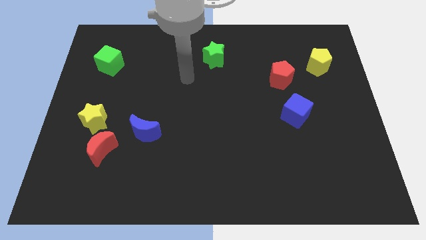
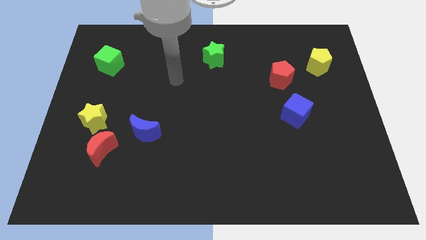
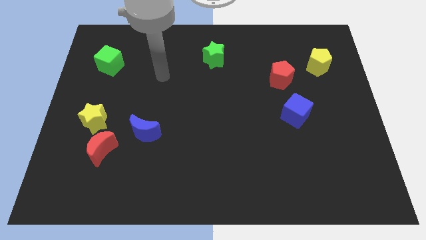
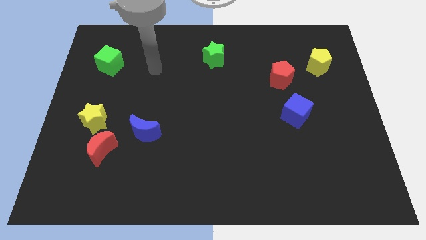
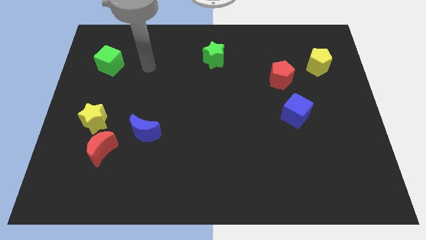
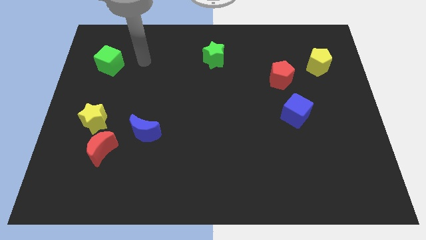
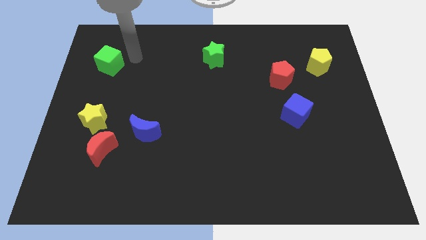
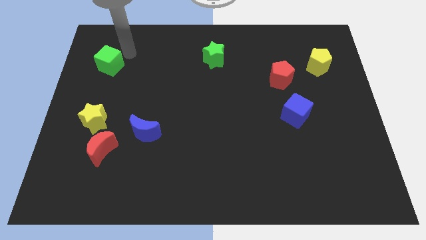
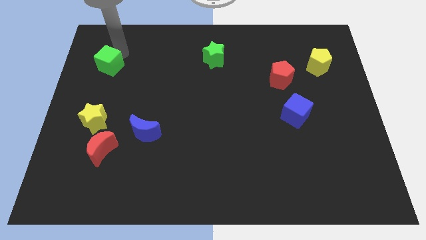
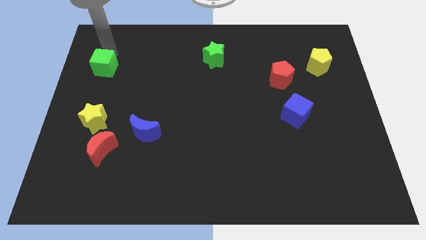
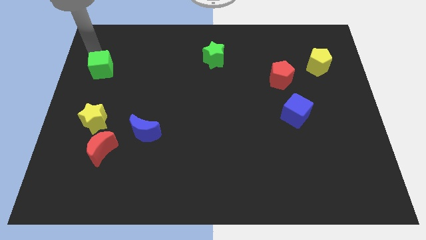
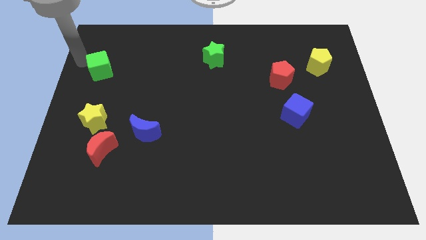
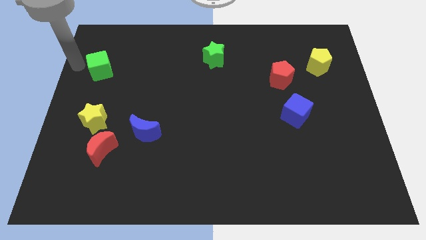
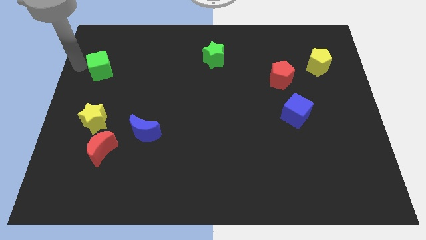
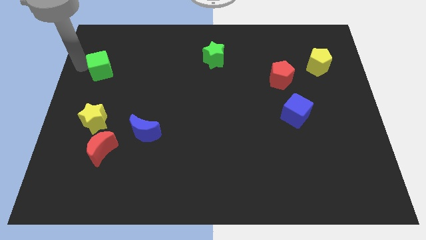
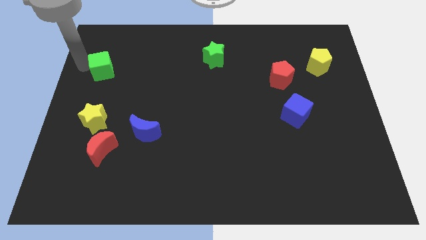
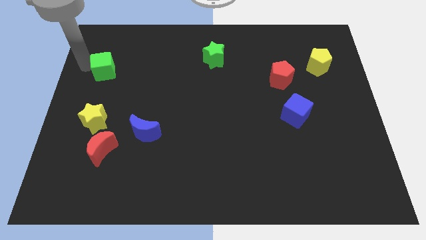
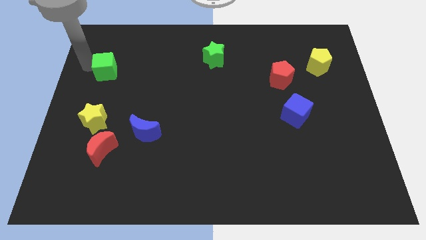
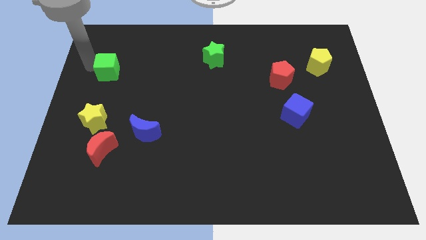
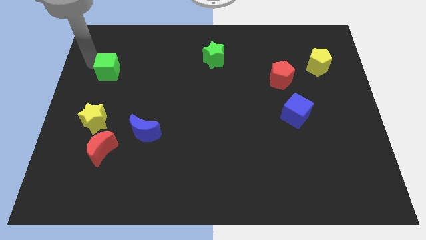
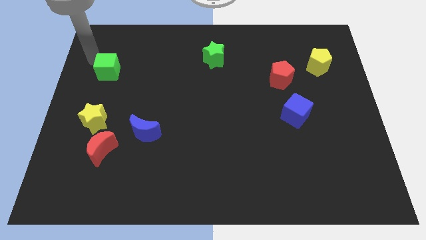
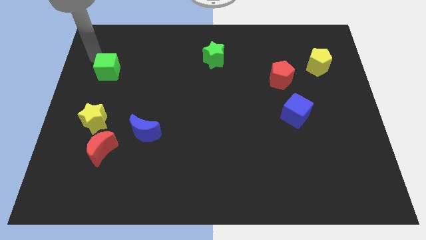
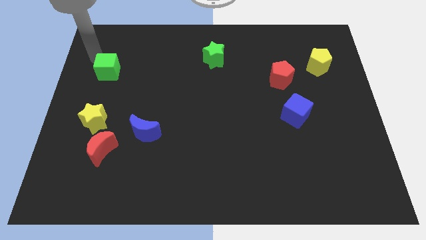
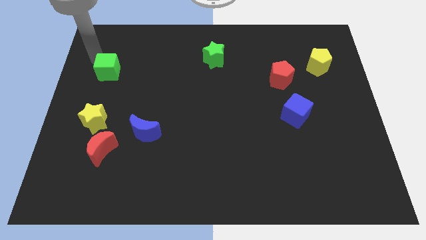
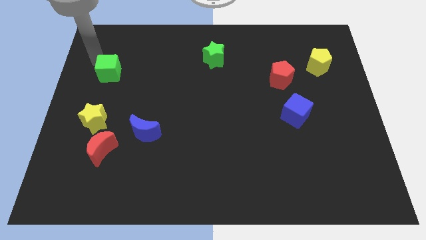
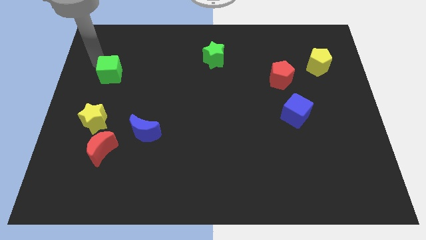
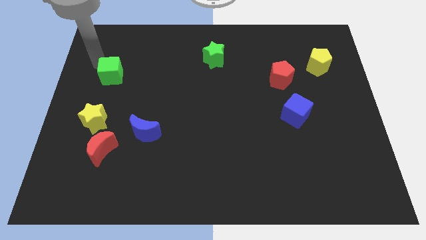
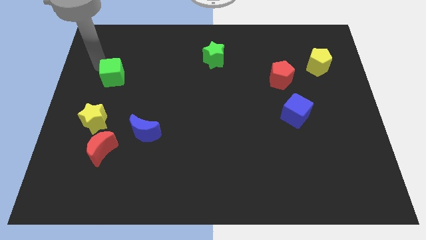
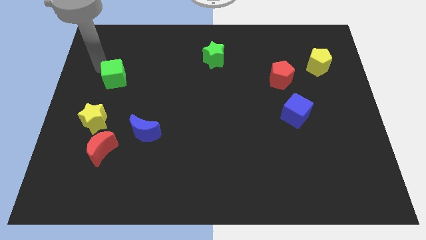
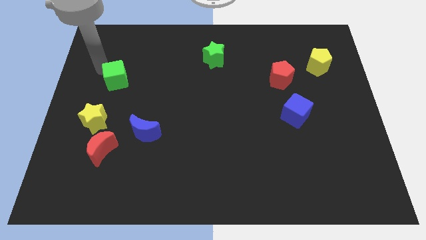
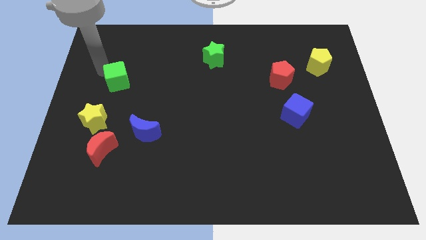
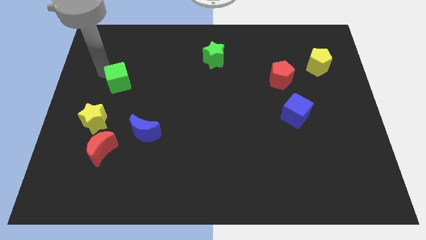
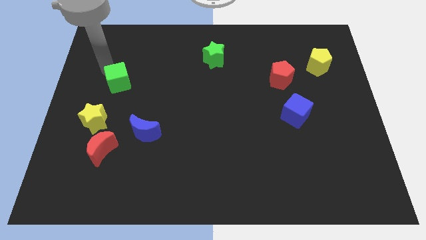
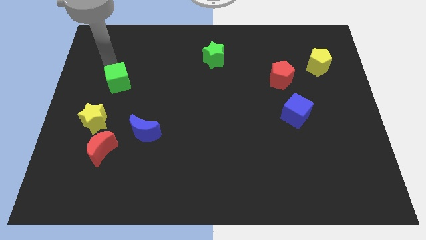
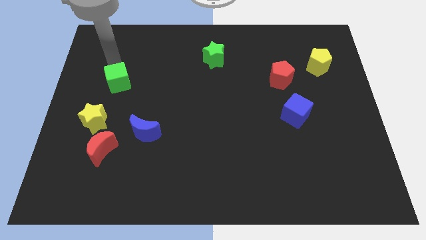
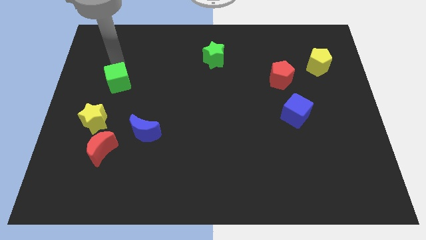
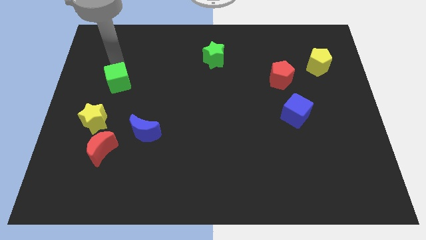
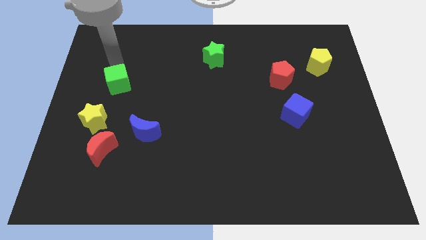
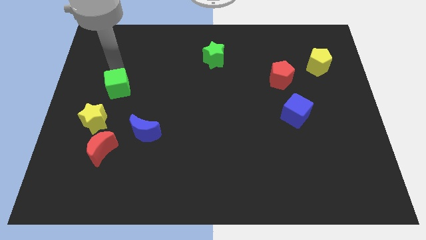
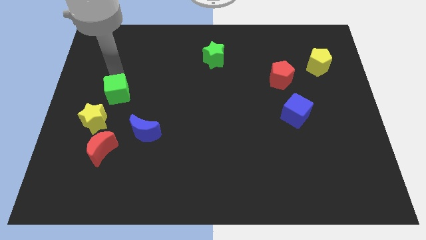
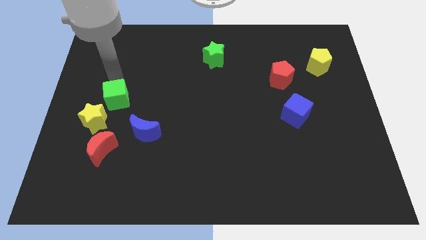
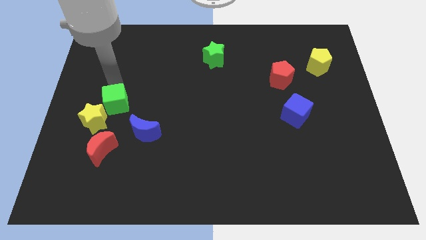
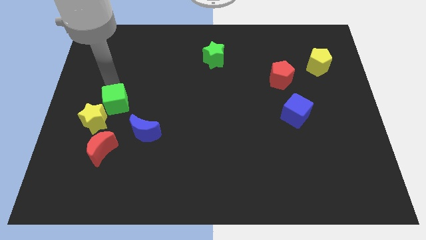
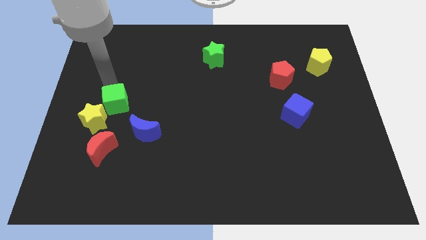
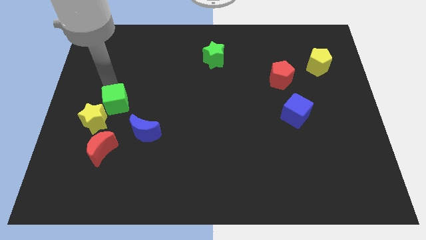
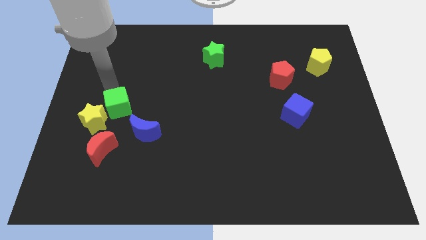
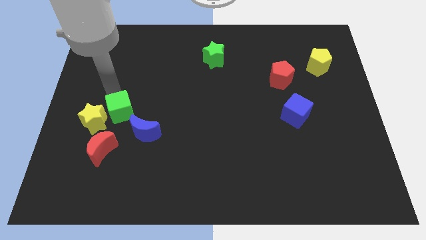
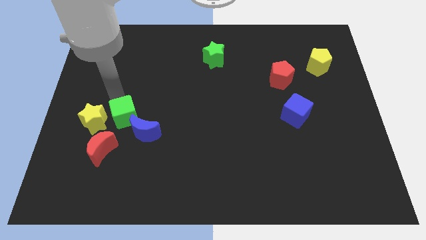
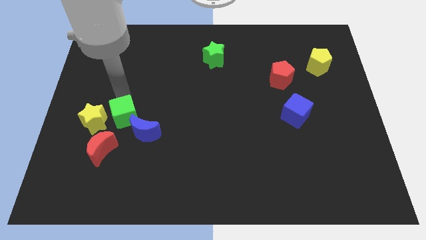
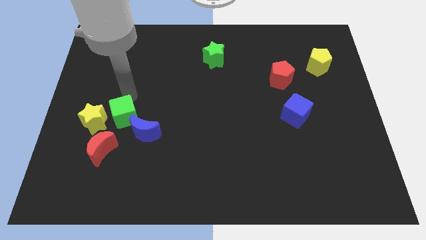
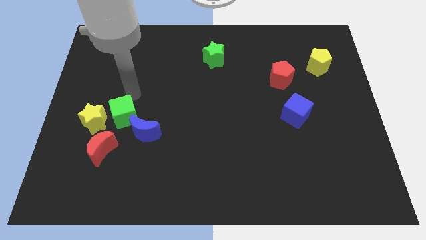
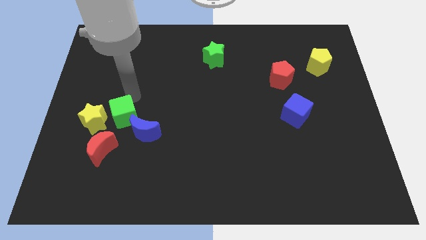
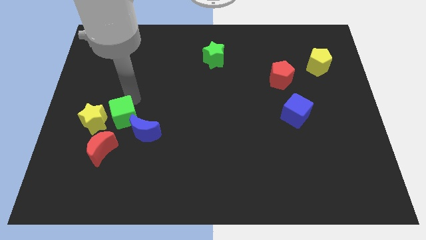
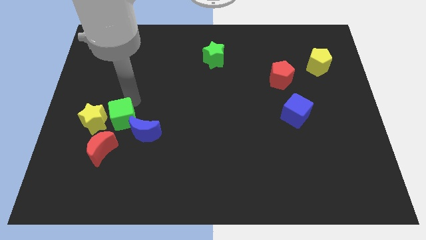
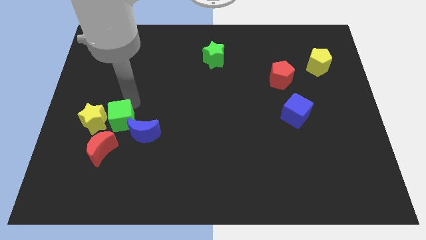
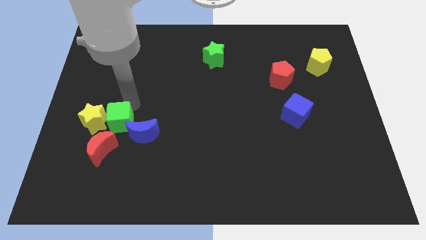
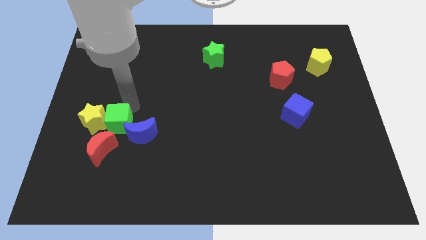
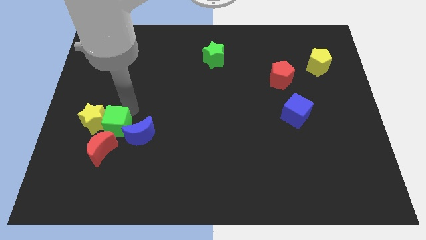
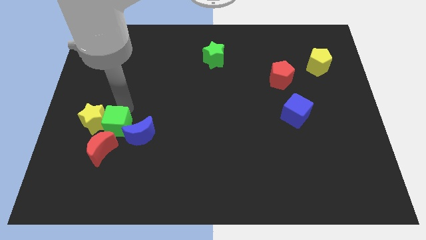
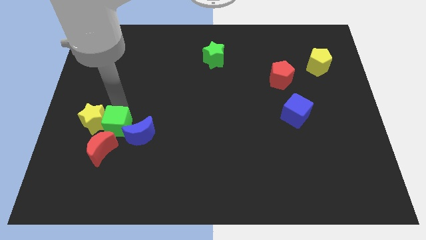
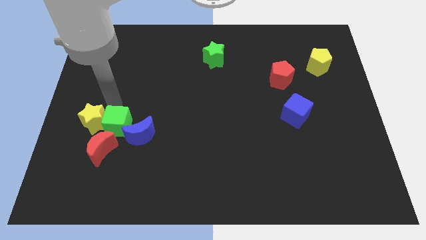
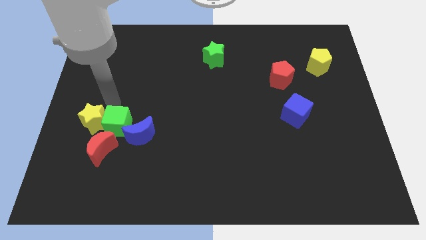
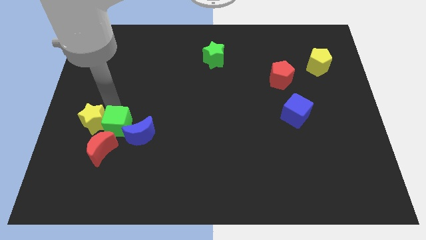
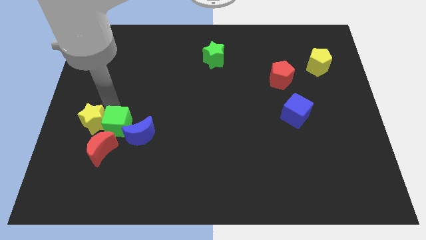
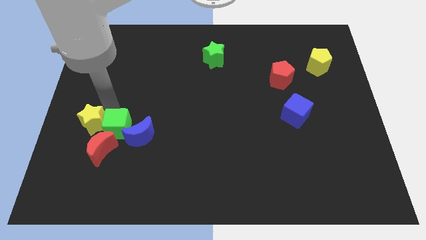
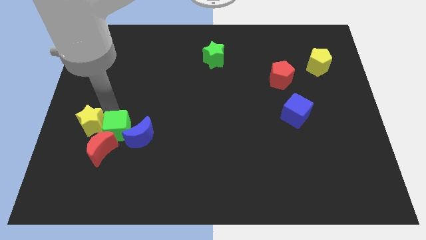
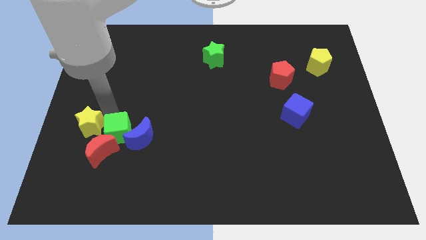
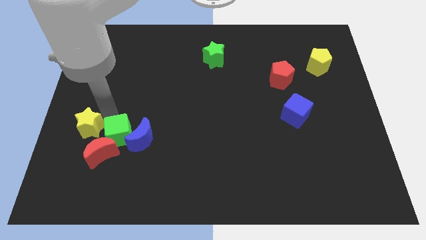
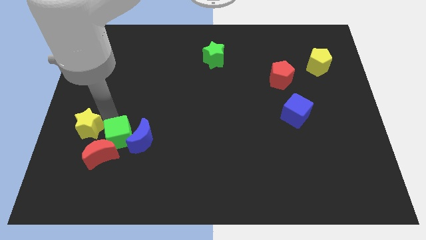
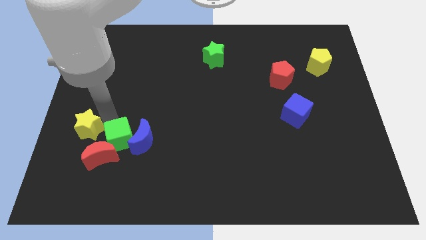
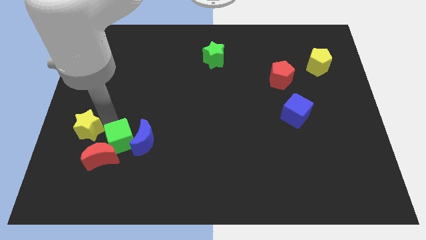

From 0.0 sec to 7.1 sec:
move the green cube to the right of the red moon
